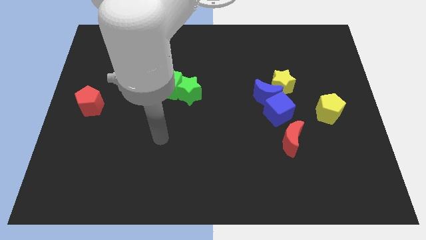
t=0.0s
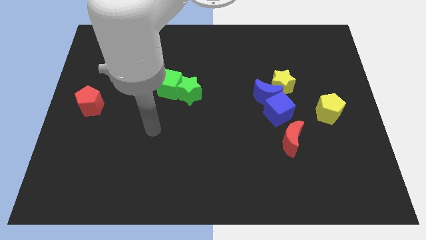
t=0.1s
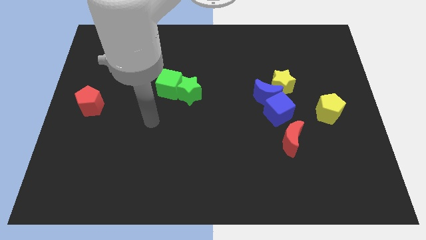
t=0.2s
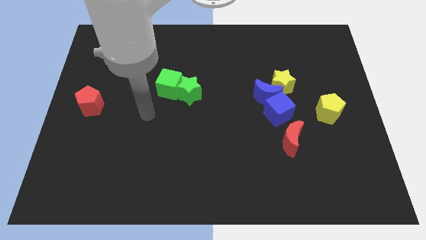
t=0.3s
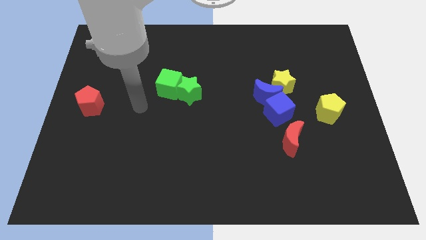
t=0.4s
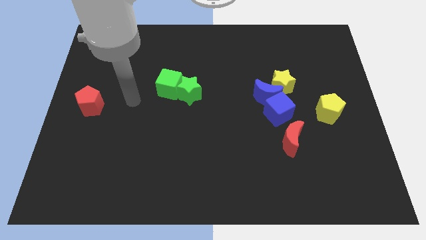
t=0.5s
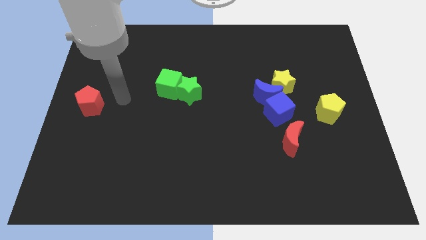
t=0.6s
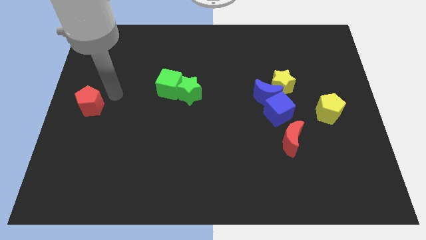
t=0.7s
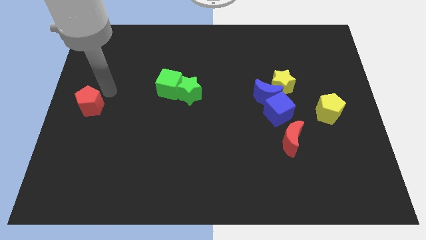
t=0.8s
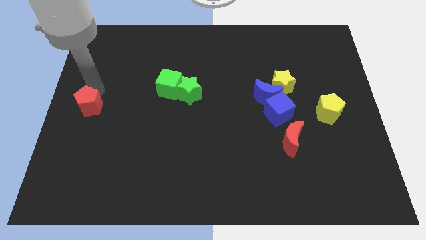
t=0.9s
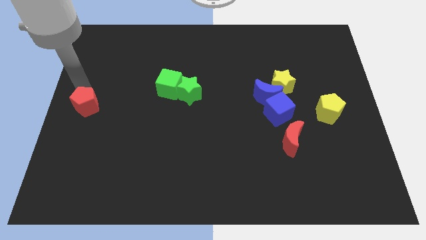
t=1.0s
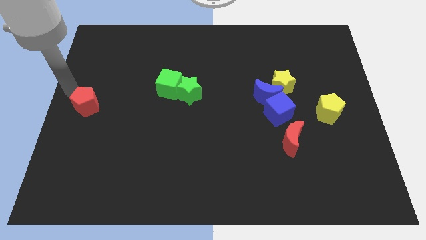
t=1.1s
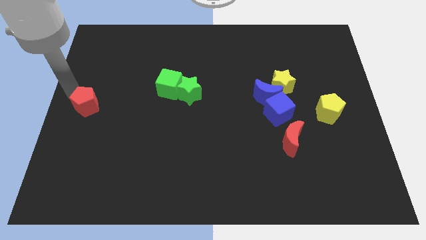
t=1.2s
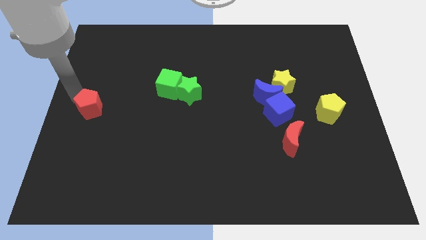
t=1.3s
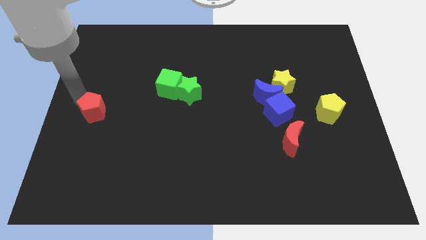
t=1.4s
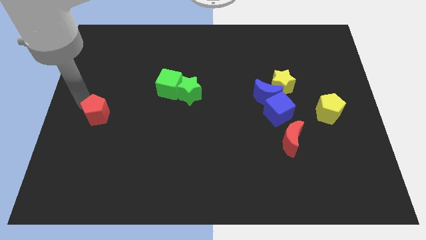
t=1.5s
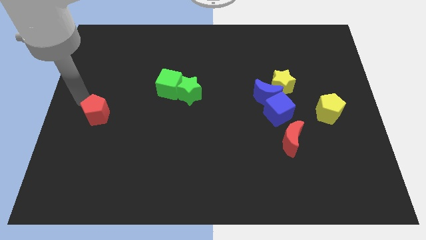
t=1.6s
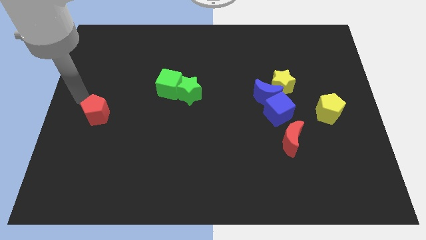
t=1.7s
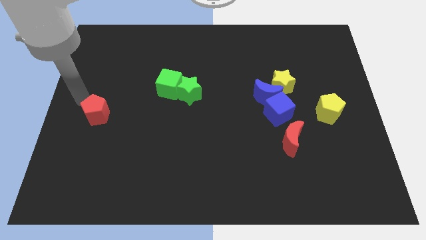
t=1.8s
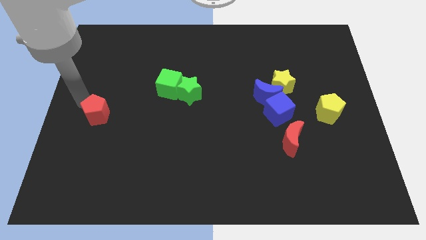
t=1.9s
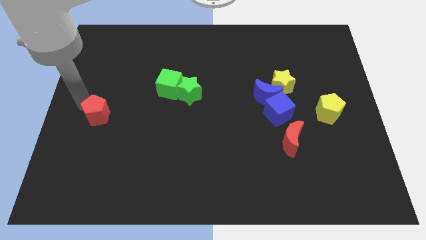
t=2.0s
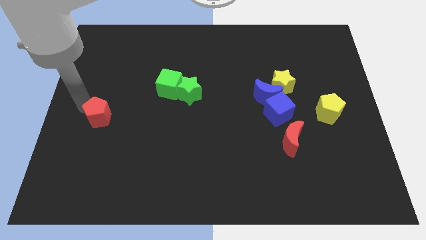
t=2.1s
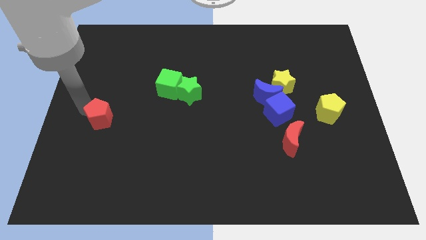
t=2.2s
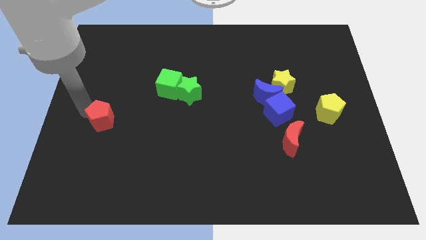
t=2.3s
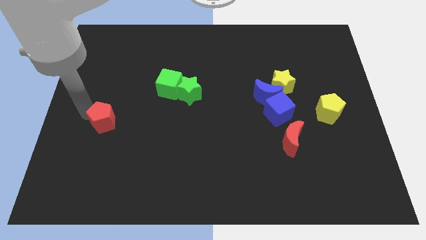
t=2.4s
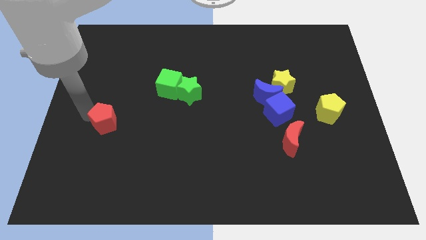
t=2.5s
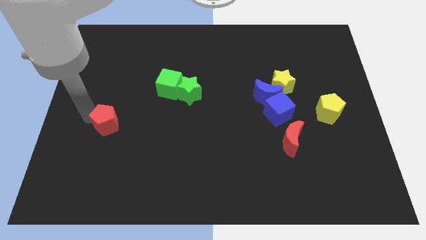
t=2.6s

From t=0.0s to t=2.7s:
slide the red pentagon a little down and to the right diagonally

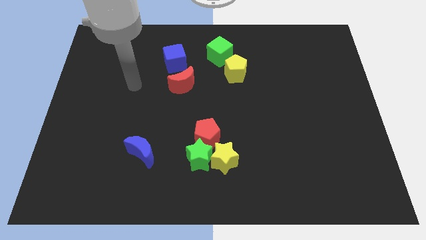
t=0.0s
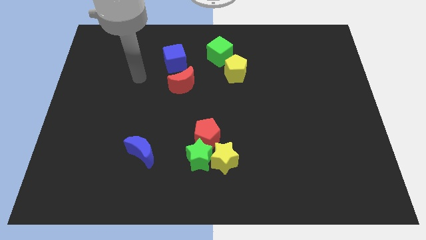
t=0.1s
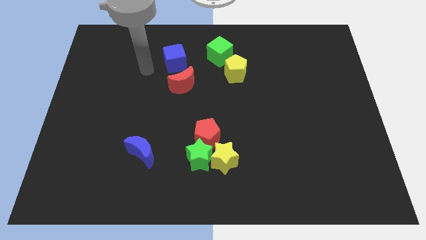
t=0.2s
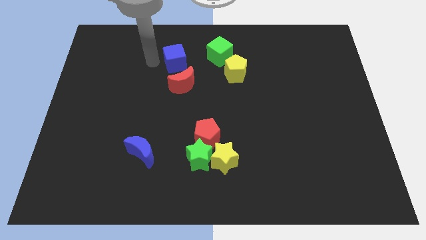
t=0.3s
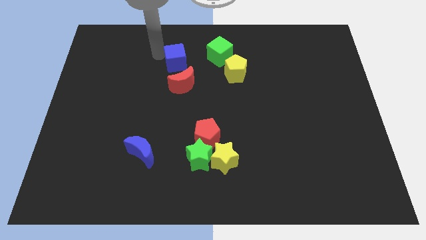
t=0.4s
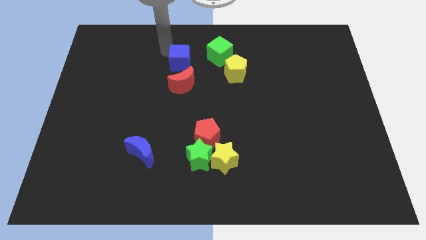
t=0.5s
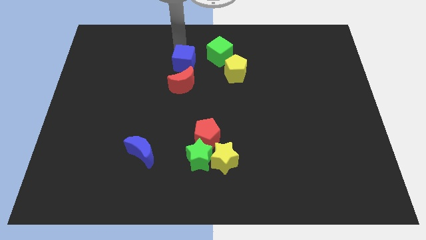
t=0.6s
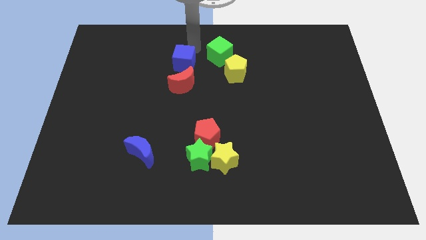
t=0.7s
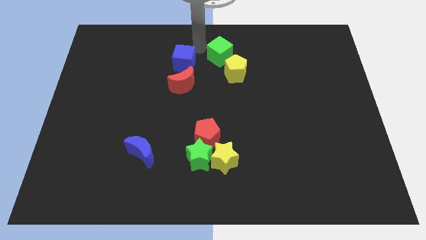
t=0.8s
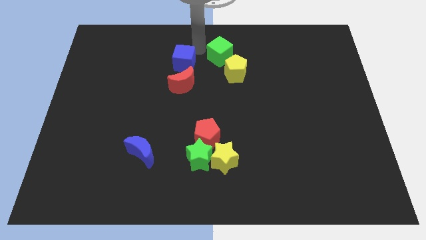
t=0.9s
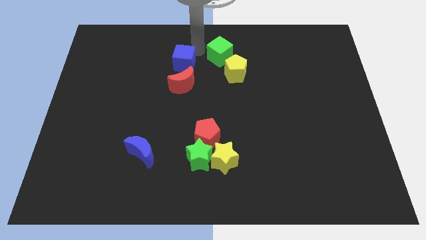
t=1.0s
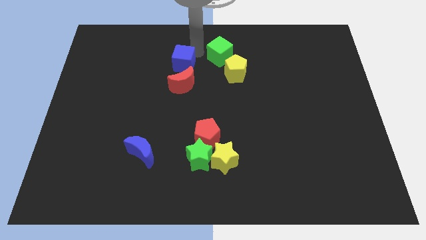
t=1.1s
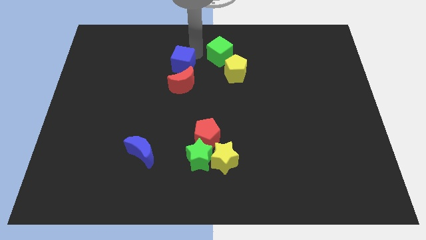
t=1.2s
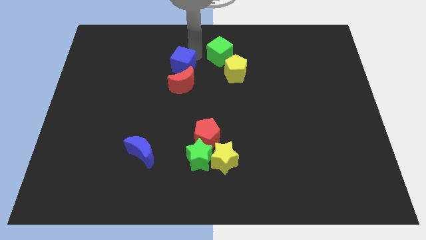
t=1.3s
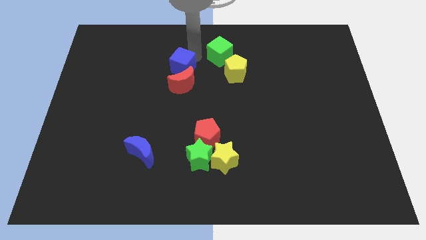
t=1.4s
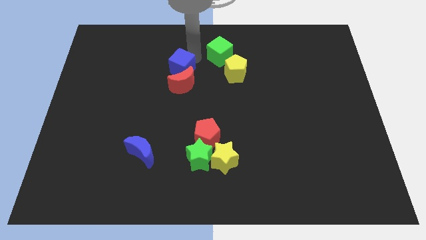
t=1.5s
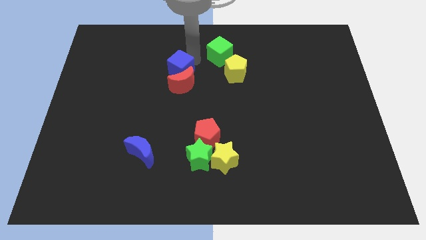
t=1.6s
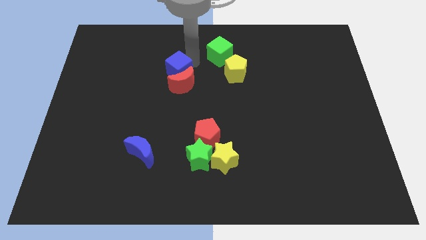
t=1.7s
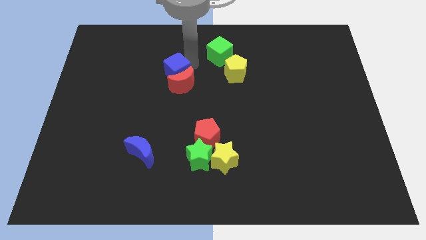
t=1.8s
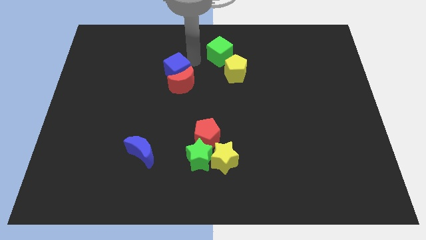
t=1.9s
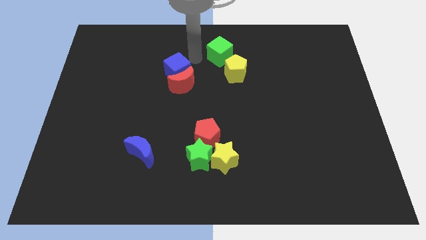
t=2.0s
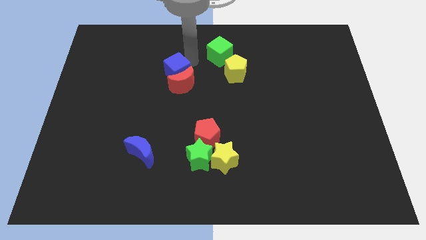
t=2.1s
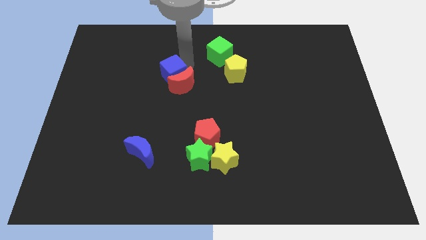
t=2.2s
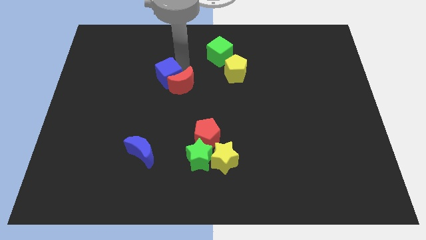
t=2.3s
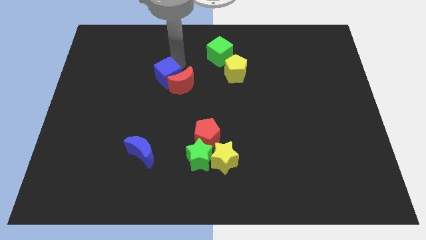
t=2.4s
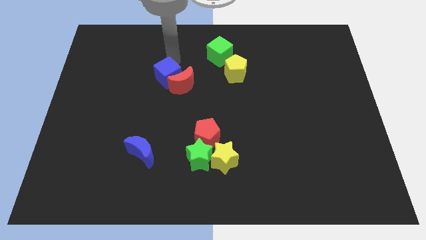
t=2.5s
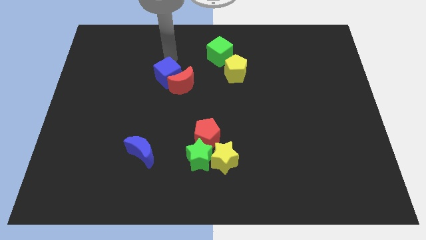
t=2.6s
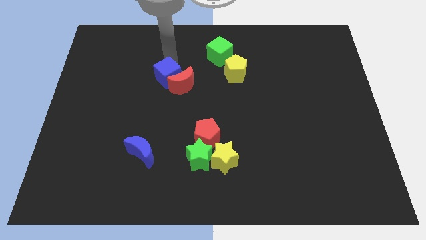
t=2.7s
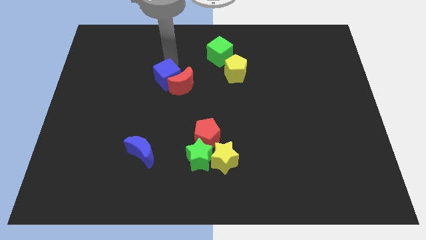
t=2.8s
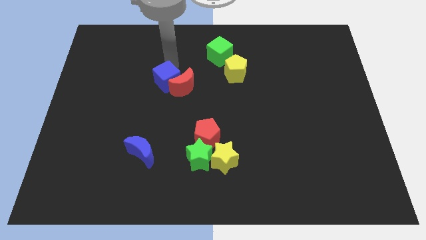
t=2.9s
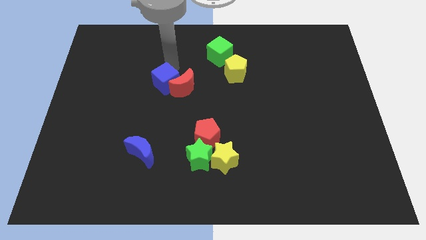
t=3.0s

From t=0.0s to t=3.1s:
slightly push the blue cube down

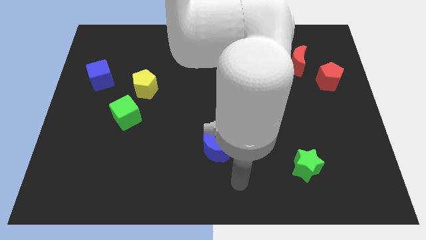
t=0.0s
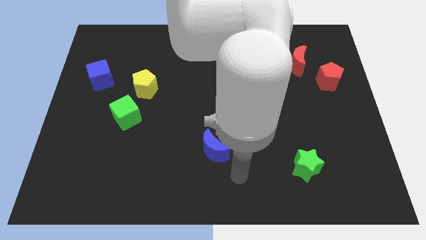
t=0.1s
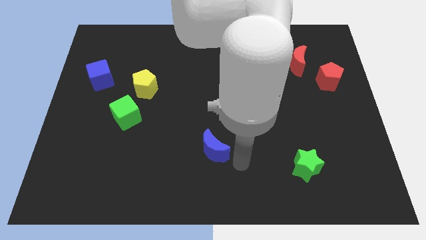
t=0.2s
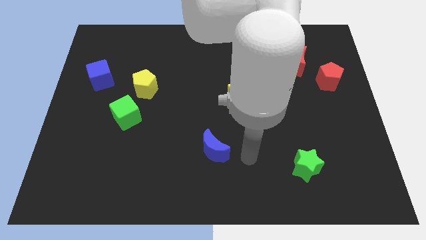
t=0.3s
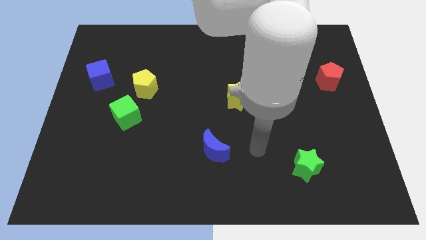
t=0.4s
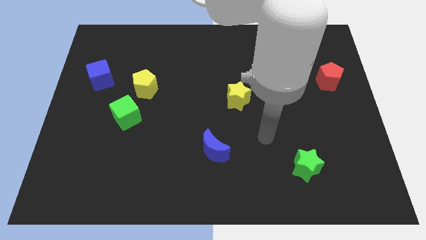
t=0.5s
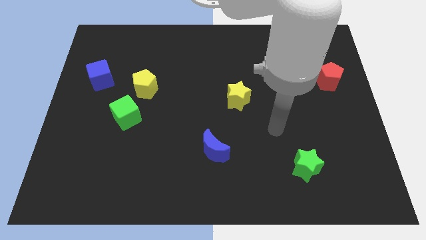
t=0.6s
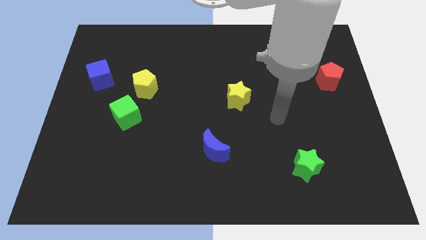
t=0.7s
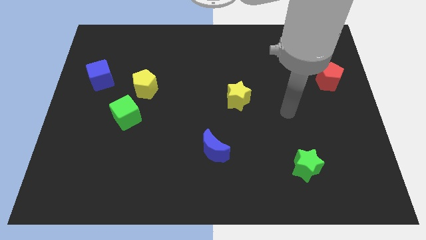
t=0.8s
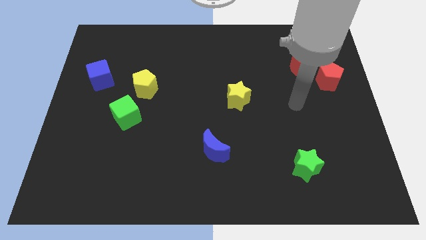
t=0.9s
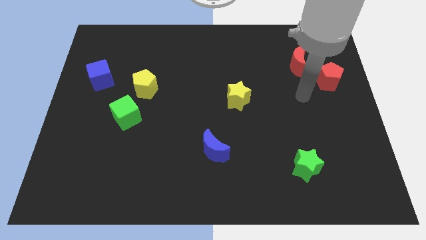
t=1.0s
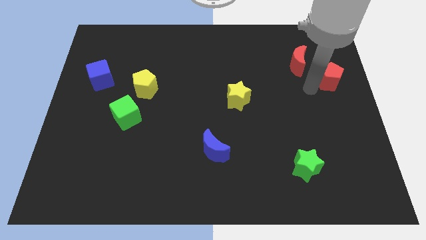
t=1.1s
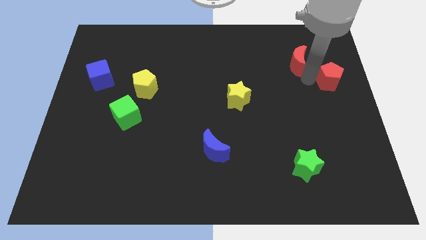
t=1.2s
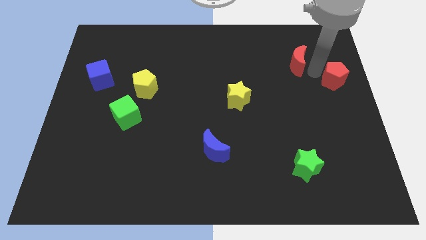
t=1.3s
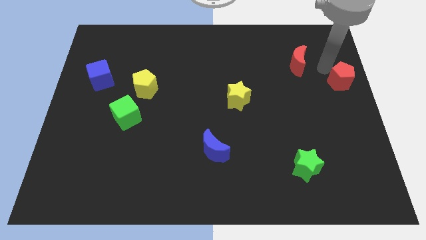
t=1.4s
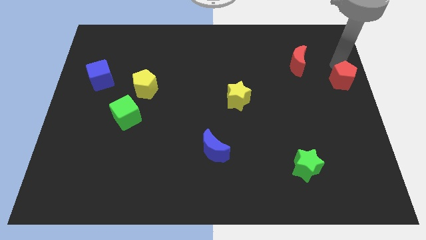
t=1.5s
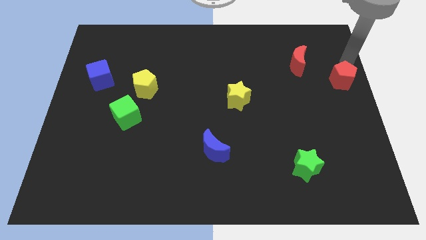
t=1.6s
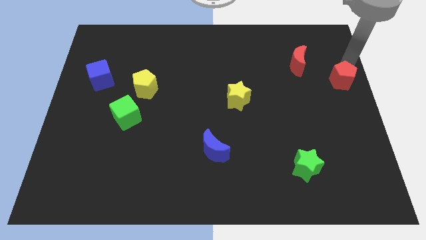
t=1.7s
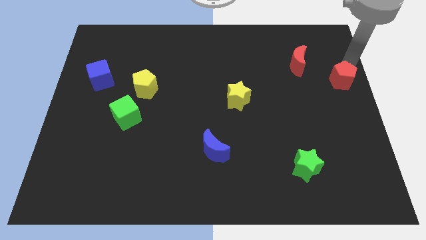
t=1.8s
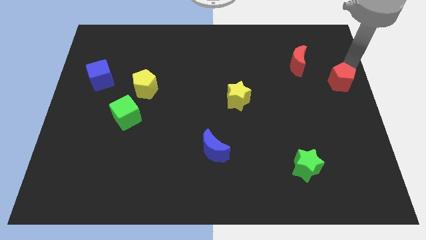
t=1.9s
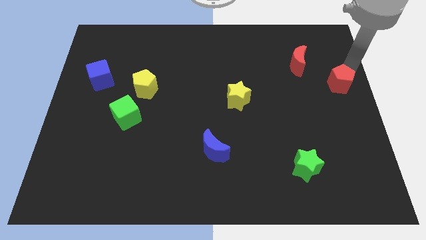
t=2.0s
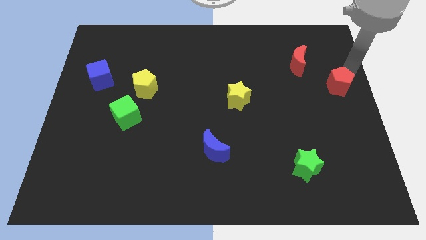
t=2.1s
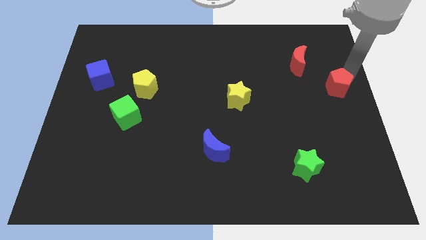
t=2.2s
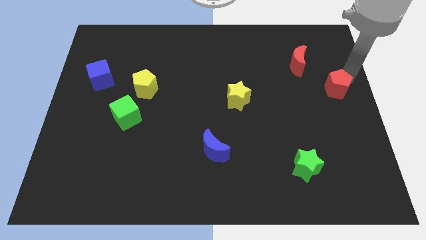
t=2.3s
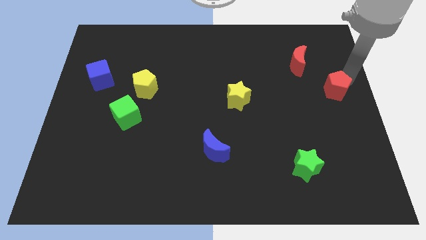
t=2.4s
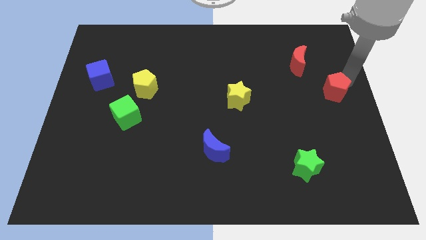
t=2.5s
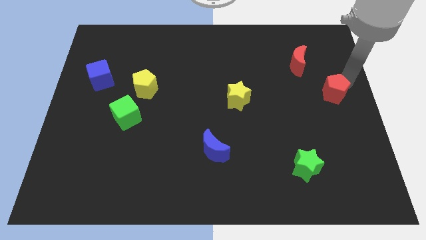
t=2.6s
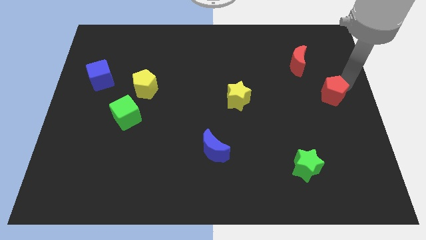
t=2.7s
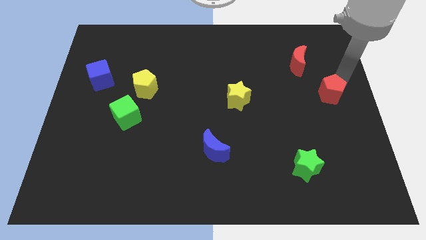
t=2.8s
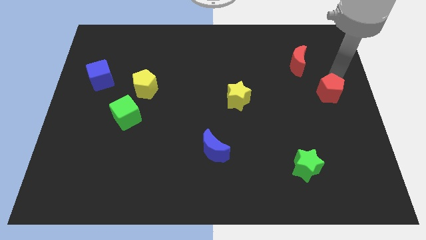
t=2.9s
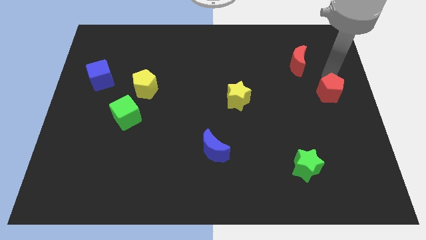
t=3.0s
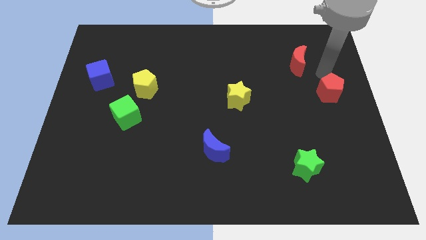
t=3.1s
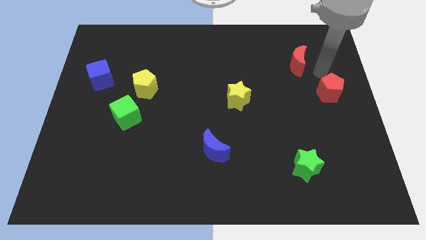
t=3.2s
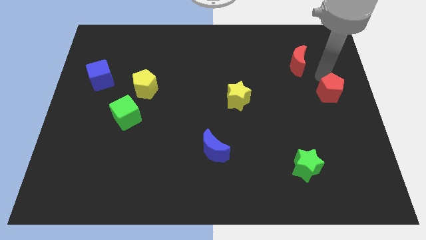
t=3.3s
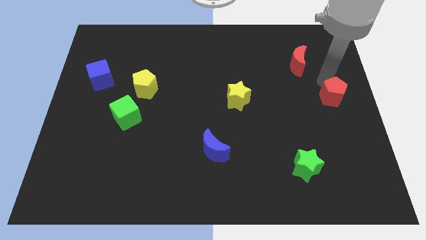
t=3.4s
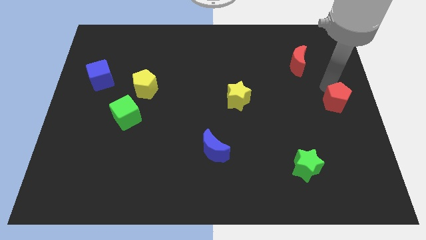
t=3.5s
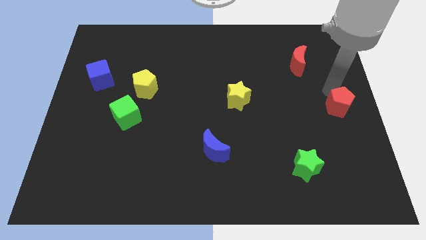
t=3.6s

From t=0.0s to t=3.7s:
slightly push the red pentagon downwards
